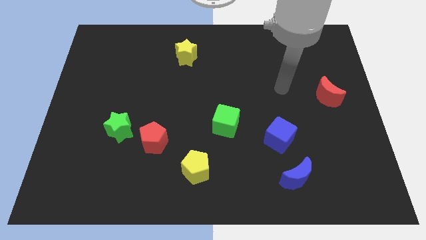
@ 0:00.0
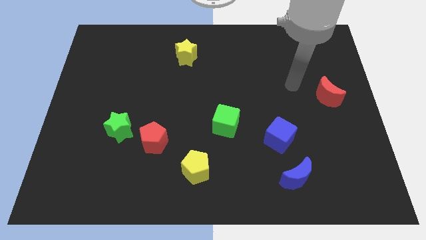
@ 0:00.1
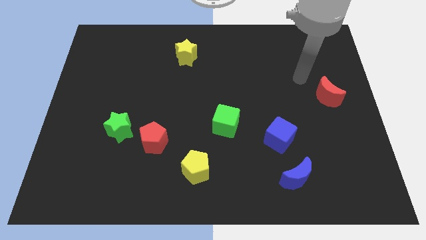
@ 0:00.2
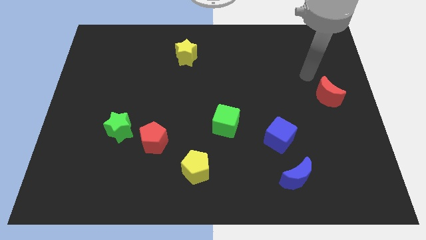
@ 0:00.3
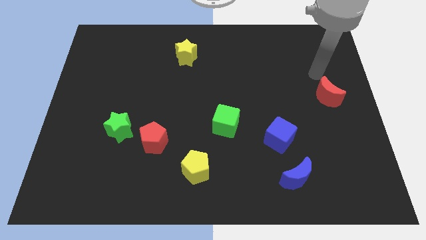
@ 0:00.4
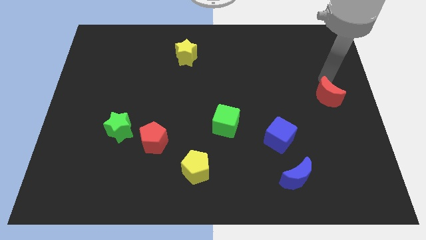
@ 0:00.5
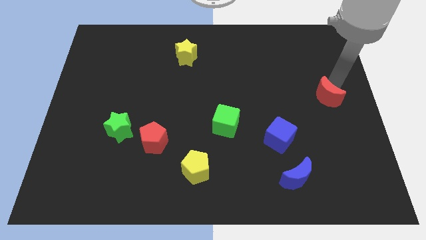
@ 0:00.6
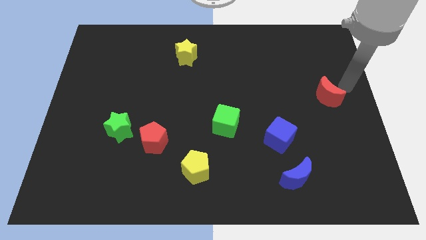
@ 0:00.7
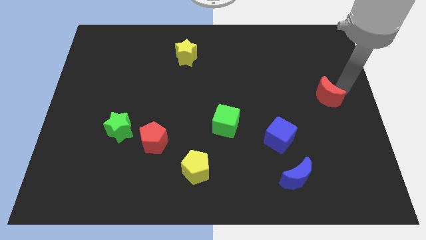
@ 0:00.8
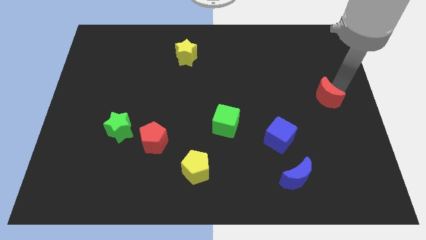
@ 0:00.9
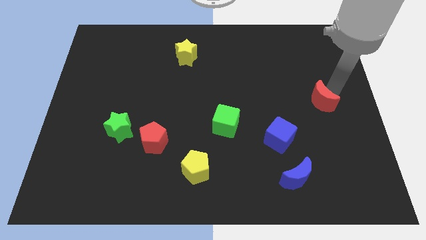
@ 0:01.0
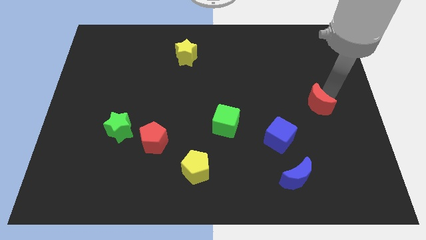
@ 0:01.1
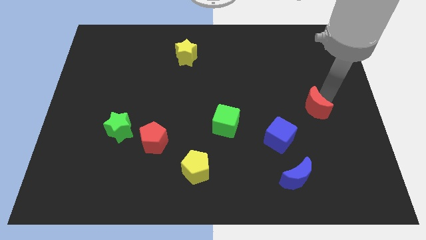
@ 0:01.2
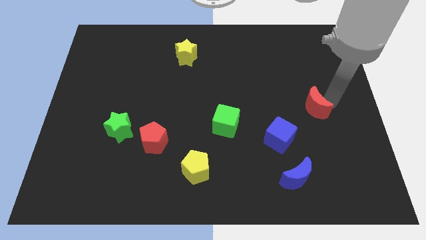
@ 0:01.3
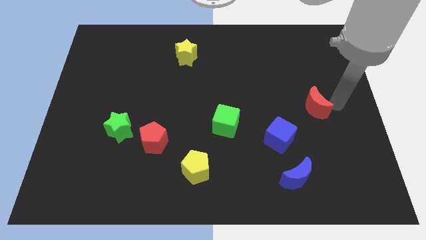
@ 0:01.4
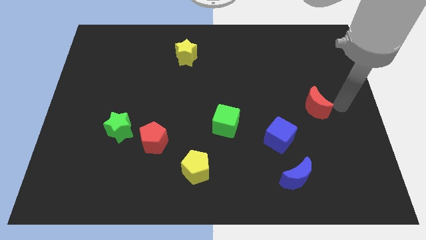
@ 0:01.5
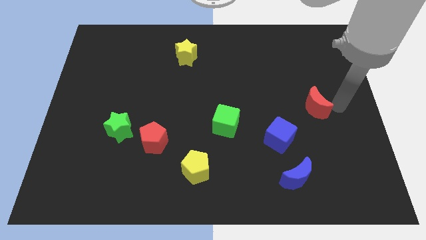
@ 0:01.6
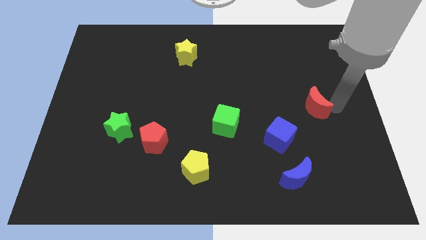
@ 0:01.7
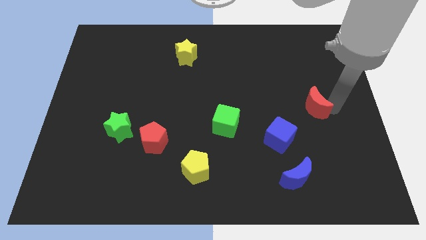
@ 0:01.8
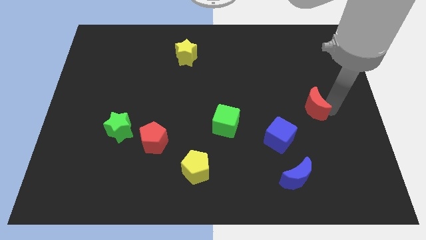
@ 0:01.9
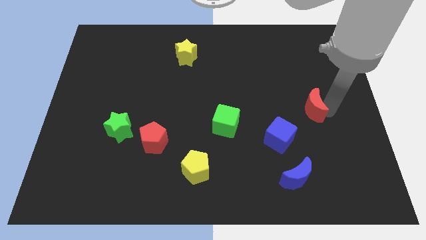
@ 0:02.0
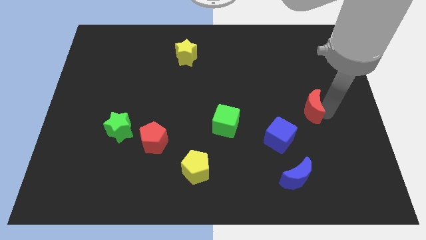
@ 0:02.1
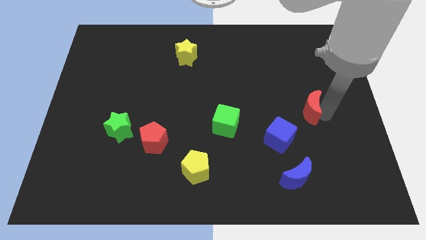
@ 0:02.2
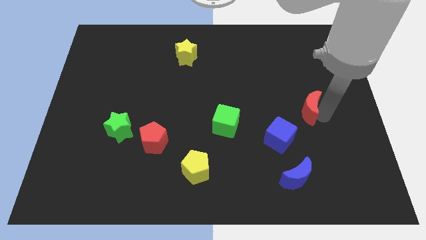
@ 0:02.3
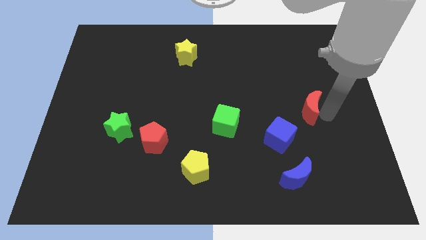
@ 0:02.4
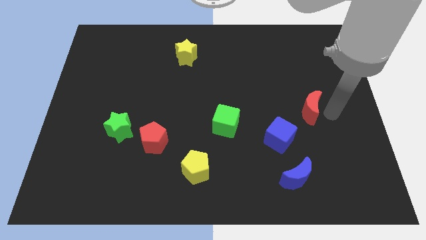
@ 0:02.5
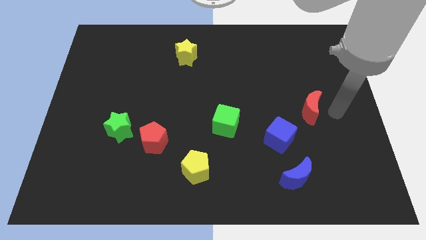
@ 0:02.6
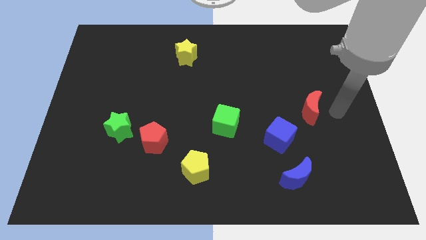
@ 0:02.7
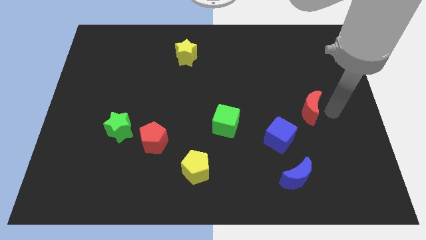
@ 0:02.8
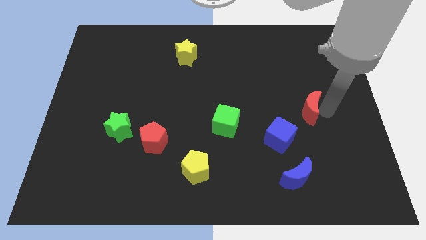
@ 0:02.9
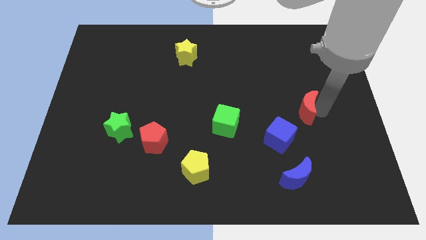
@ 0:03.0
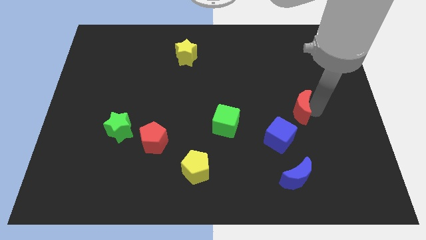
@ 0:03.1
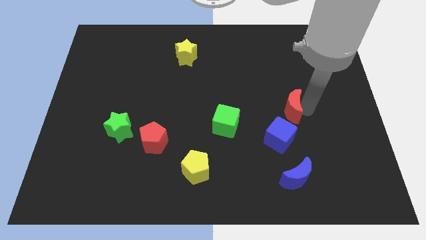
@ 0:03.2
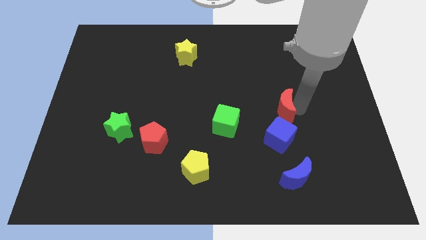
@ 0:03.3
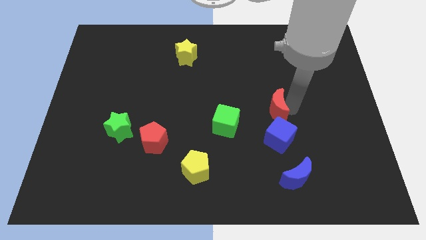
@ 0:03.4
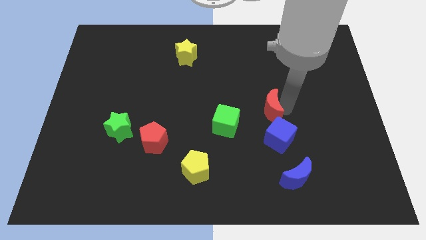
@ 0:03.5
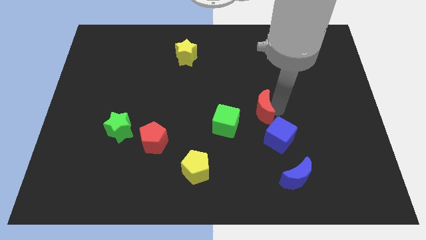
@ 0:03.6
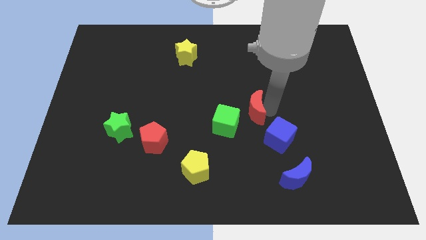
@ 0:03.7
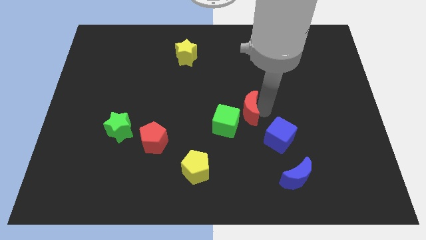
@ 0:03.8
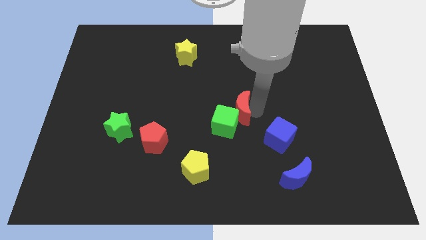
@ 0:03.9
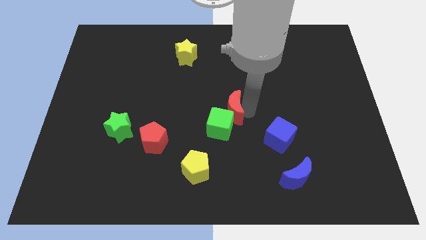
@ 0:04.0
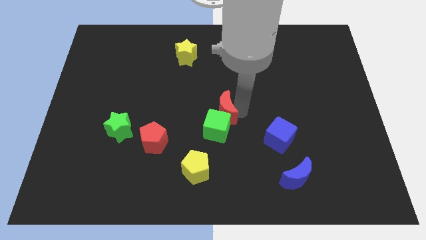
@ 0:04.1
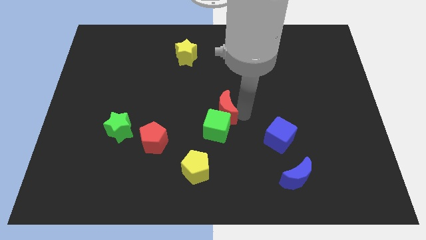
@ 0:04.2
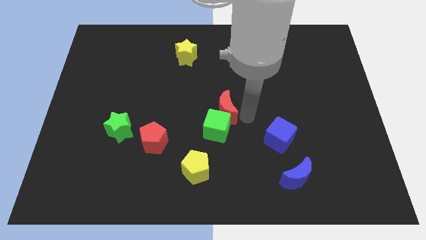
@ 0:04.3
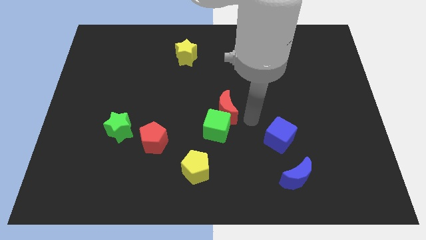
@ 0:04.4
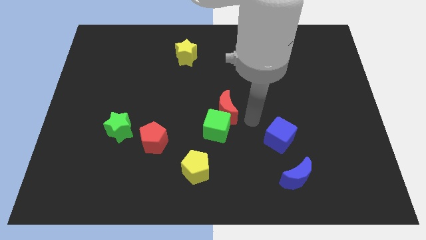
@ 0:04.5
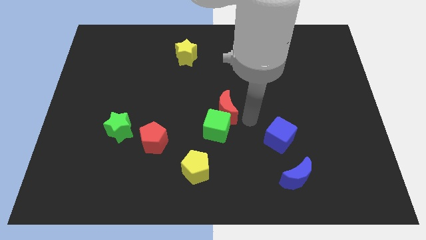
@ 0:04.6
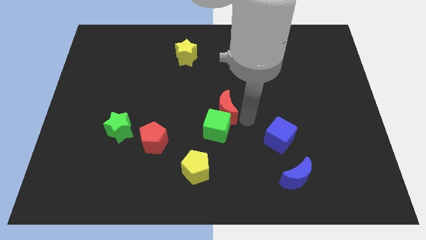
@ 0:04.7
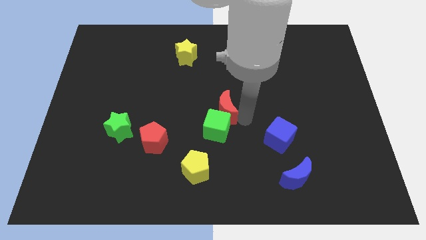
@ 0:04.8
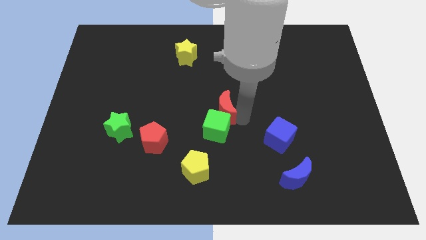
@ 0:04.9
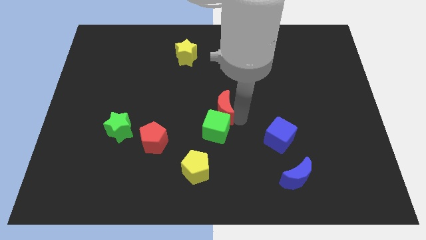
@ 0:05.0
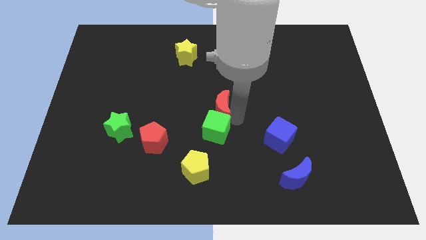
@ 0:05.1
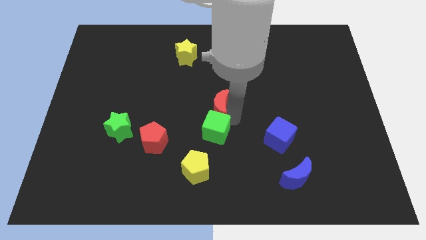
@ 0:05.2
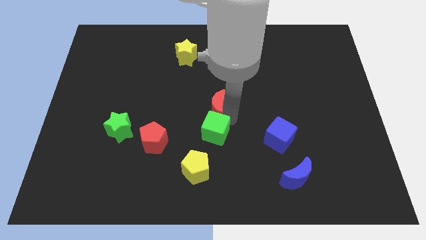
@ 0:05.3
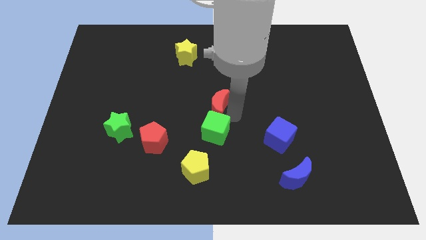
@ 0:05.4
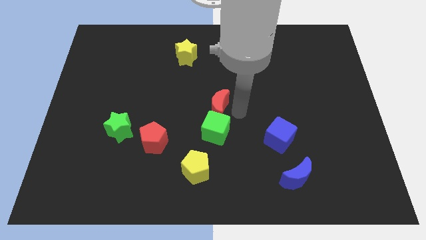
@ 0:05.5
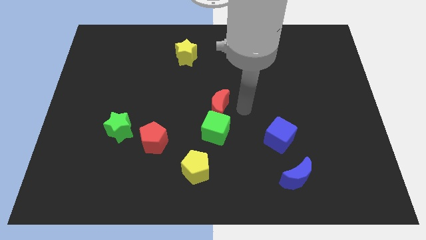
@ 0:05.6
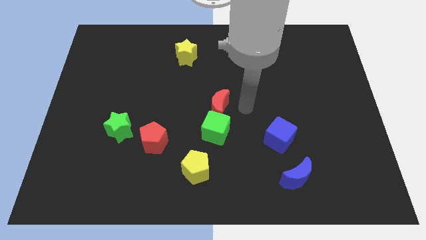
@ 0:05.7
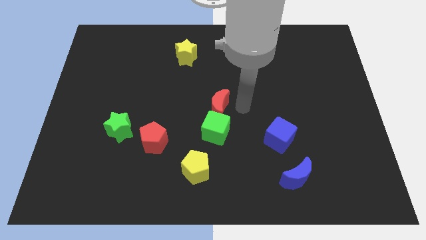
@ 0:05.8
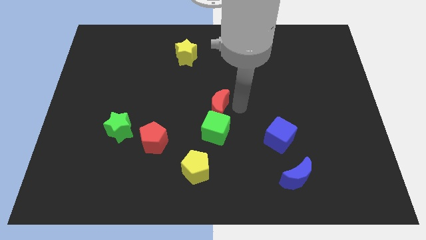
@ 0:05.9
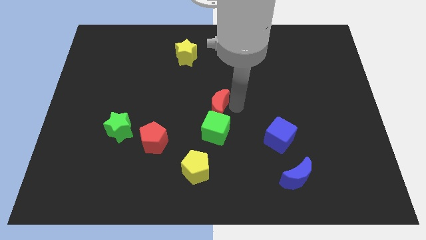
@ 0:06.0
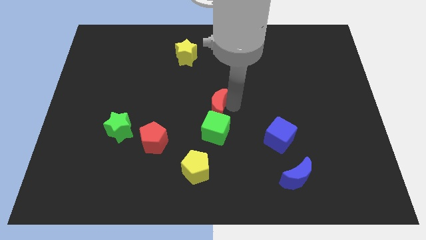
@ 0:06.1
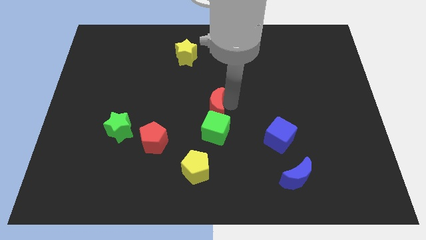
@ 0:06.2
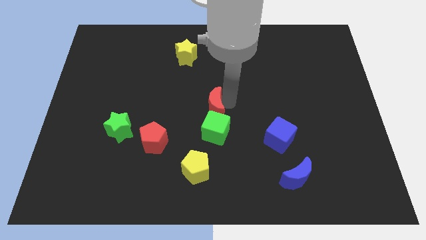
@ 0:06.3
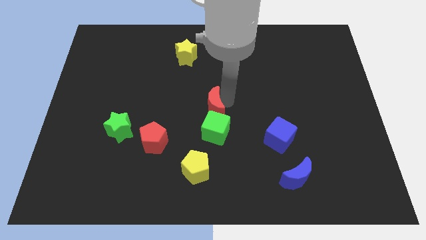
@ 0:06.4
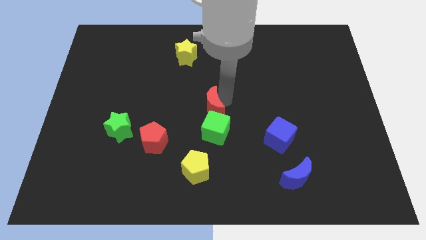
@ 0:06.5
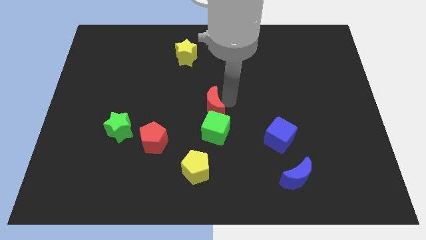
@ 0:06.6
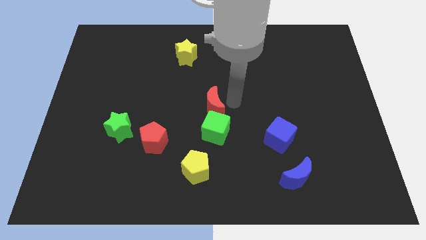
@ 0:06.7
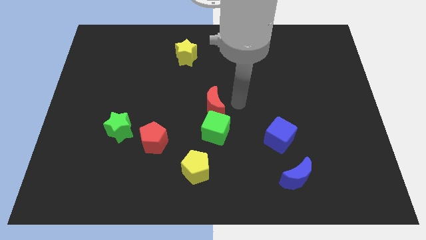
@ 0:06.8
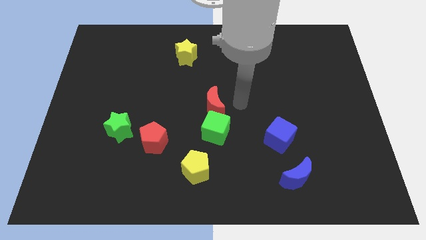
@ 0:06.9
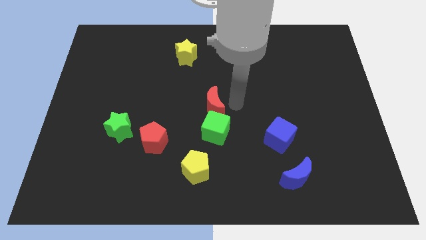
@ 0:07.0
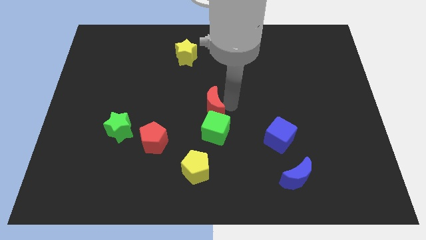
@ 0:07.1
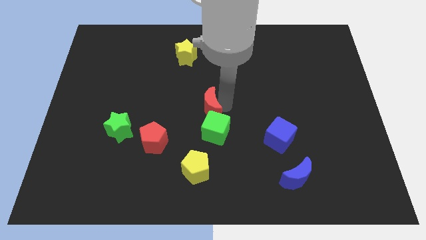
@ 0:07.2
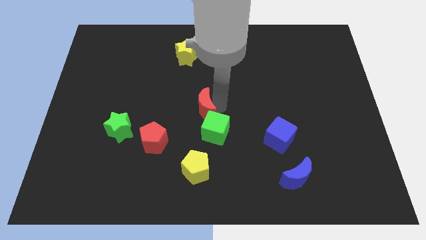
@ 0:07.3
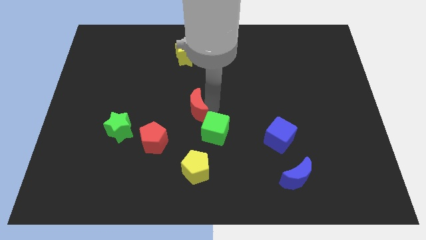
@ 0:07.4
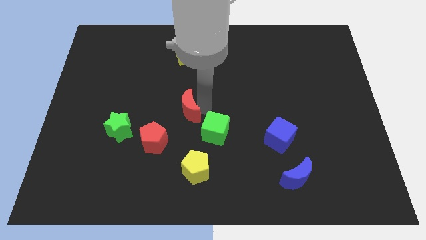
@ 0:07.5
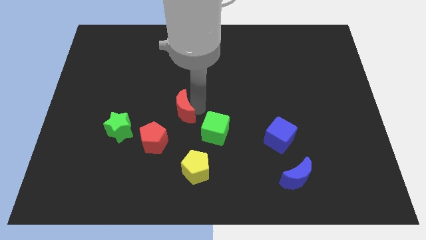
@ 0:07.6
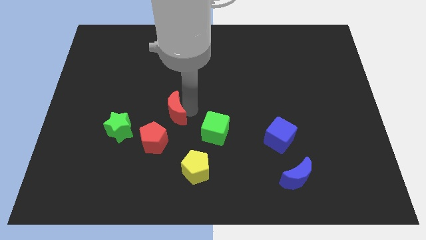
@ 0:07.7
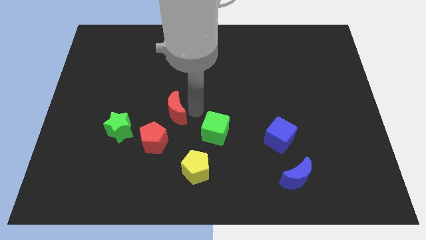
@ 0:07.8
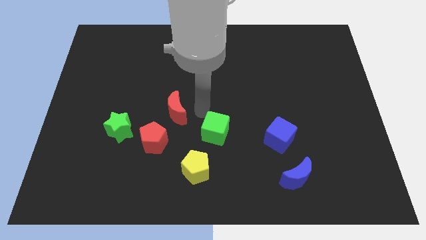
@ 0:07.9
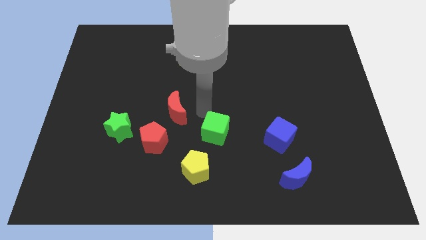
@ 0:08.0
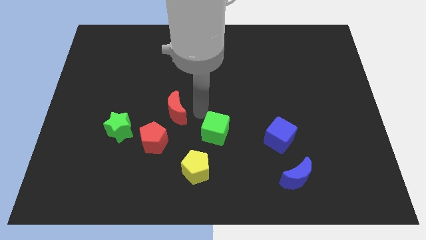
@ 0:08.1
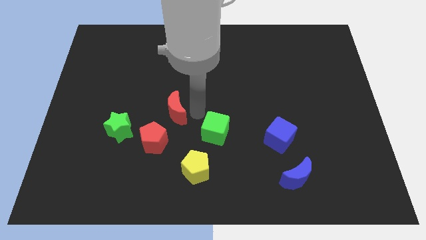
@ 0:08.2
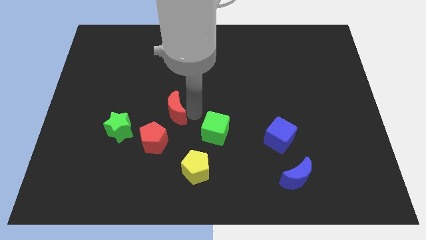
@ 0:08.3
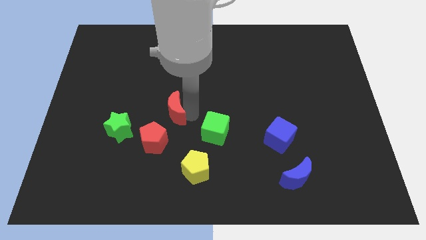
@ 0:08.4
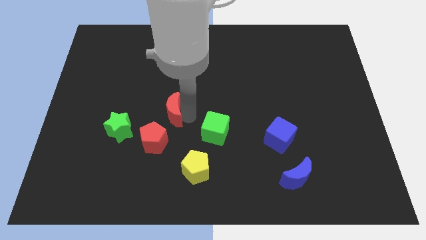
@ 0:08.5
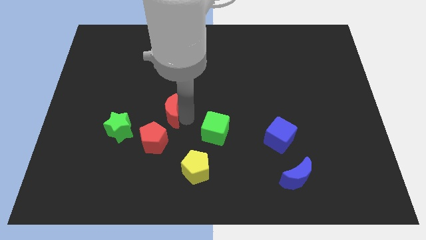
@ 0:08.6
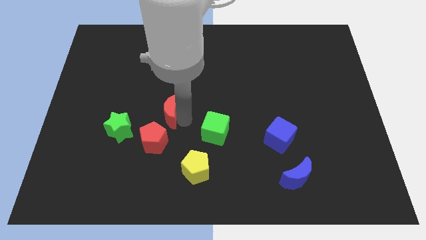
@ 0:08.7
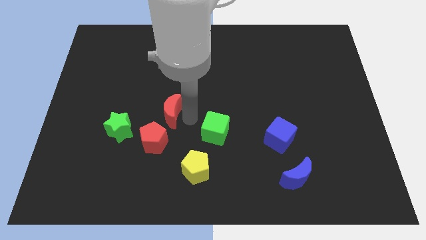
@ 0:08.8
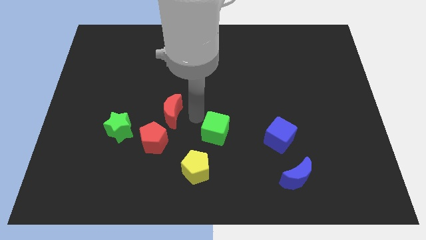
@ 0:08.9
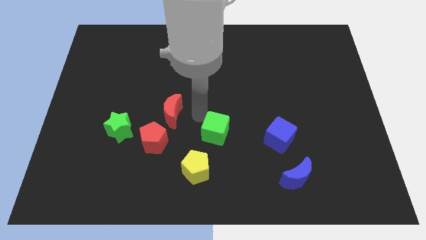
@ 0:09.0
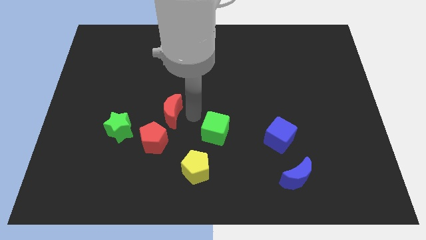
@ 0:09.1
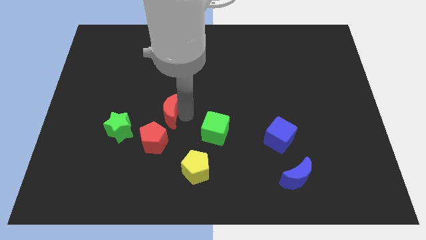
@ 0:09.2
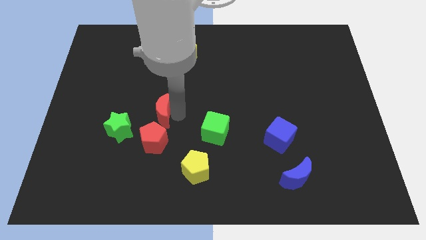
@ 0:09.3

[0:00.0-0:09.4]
slide the red moon to the top right of the green star
